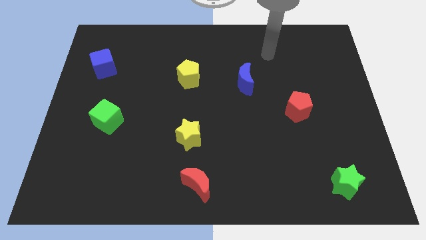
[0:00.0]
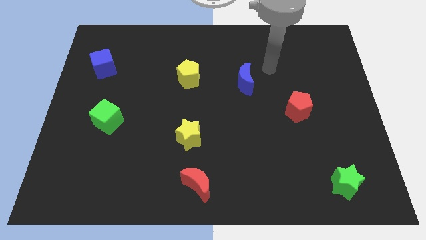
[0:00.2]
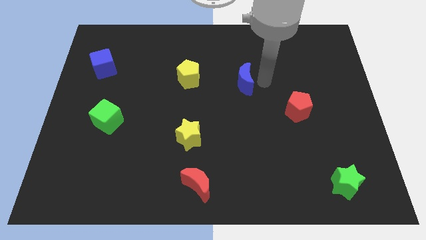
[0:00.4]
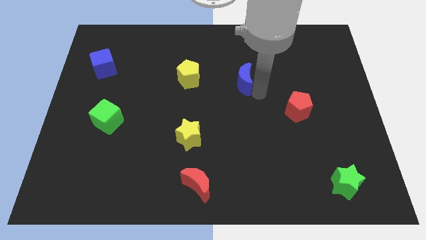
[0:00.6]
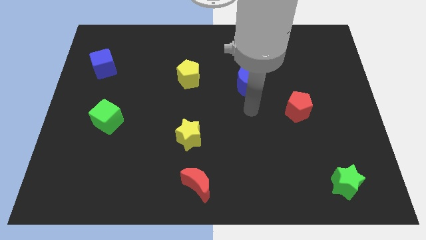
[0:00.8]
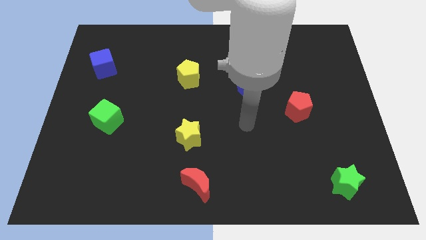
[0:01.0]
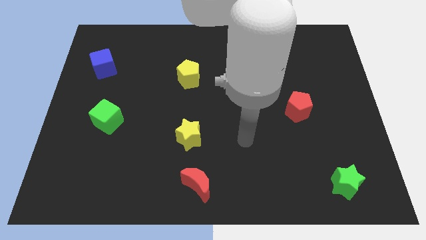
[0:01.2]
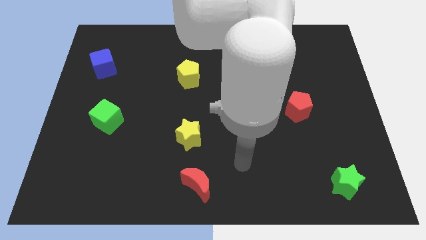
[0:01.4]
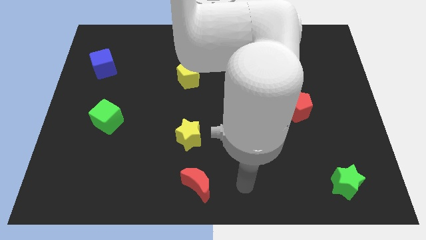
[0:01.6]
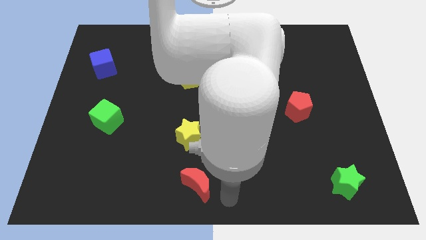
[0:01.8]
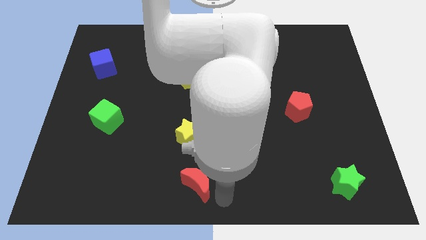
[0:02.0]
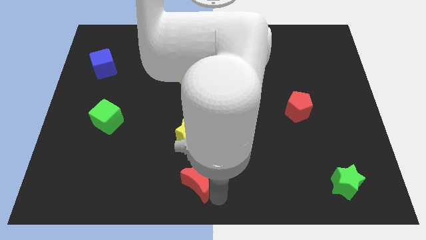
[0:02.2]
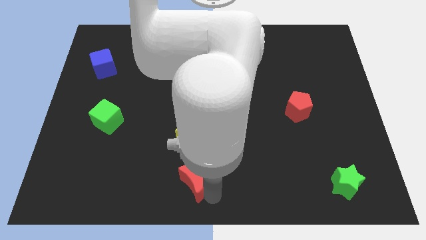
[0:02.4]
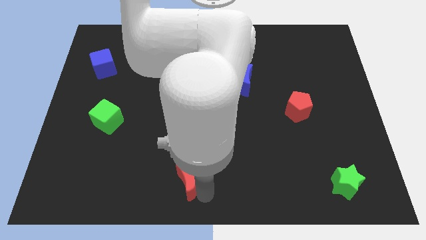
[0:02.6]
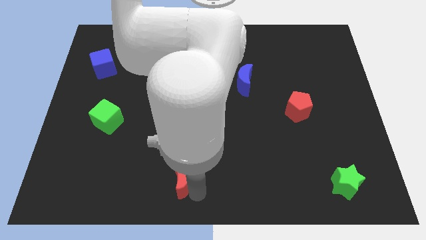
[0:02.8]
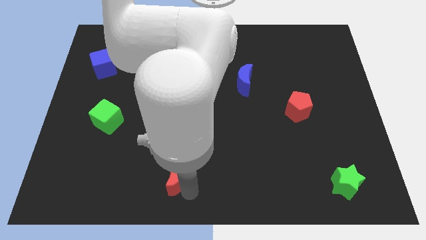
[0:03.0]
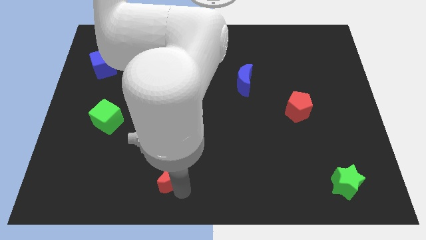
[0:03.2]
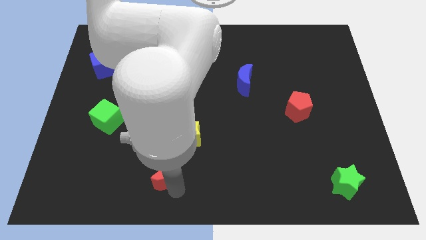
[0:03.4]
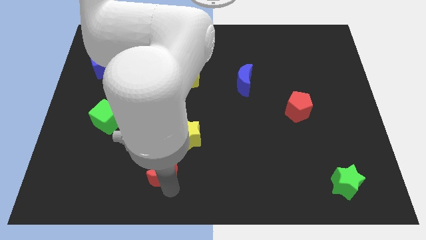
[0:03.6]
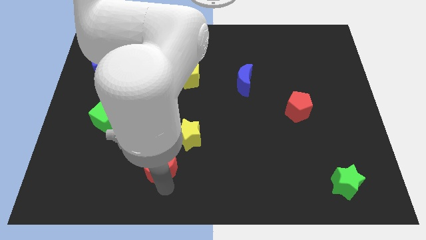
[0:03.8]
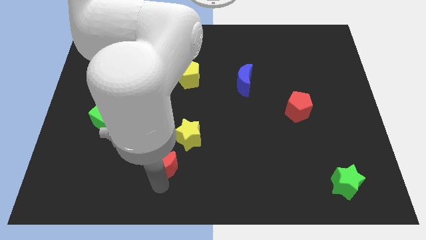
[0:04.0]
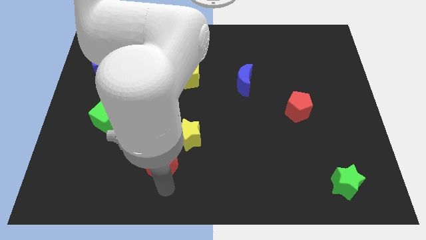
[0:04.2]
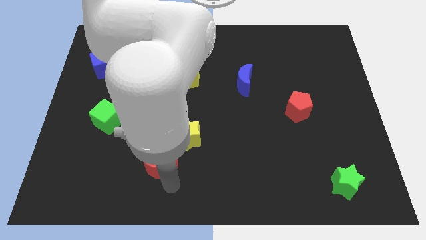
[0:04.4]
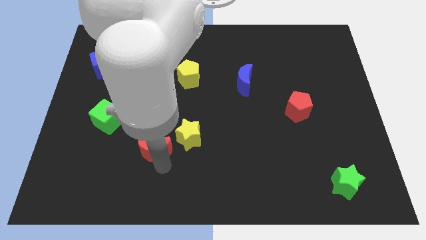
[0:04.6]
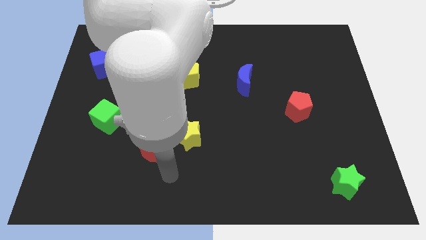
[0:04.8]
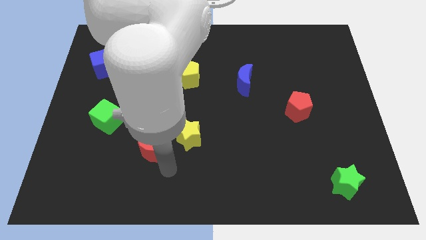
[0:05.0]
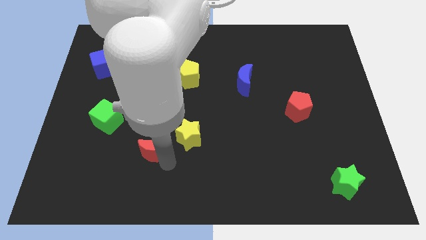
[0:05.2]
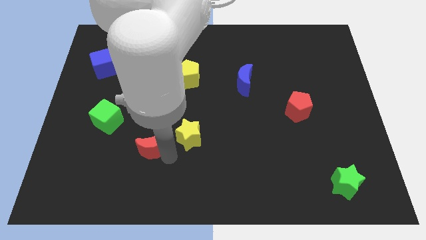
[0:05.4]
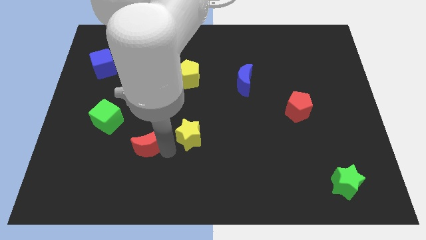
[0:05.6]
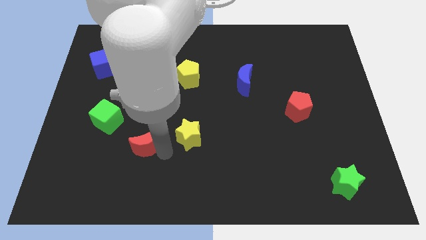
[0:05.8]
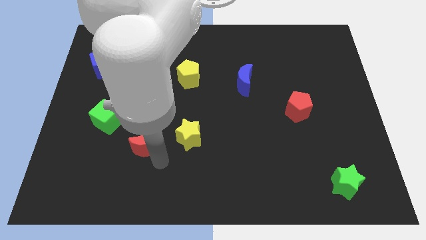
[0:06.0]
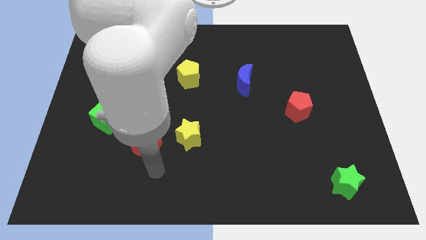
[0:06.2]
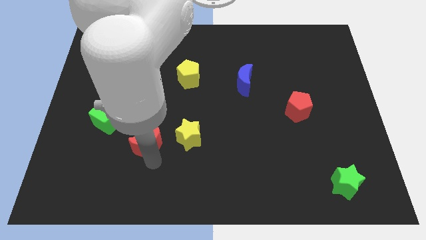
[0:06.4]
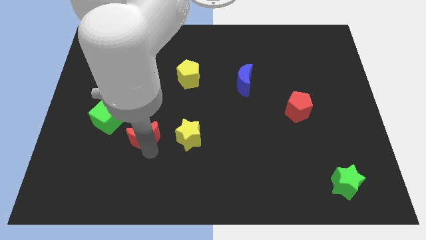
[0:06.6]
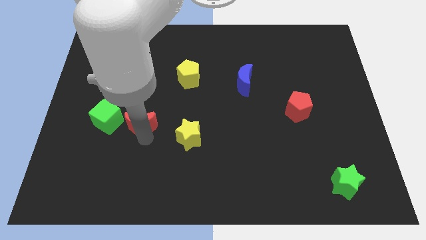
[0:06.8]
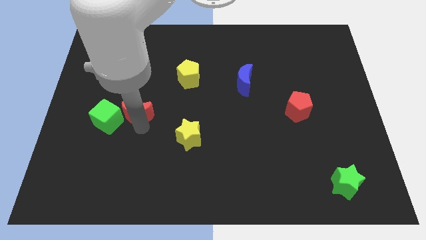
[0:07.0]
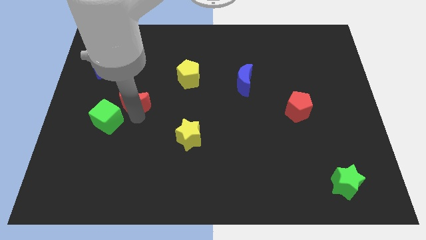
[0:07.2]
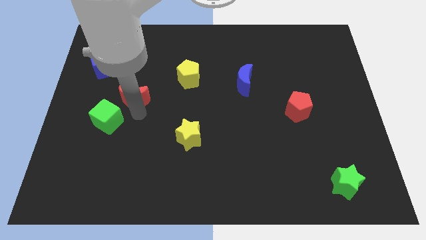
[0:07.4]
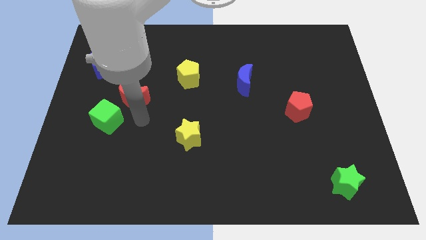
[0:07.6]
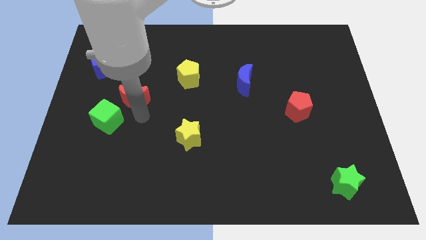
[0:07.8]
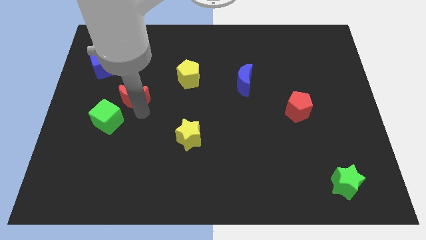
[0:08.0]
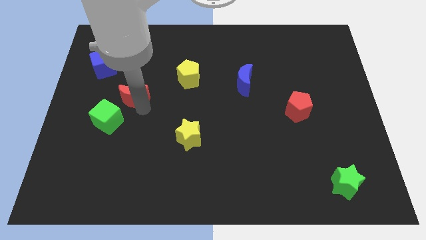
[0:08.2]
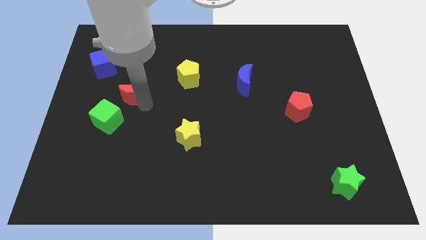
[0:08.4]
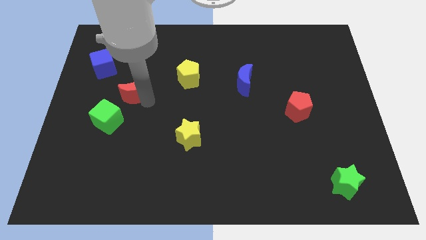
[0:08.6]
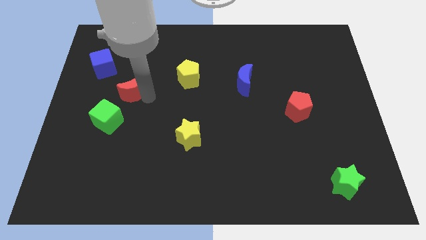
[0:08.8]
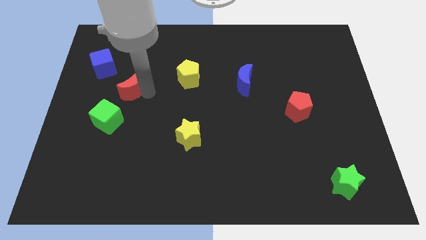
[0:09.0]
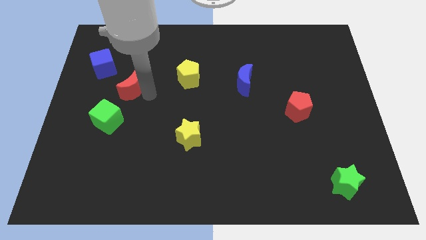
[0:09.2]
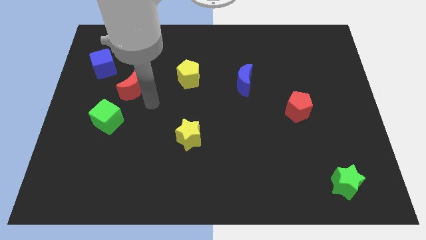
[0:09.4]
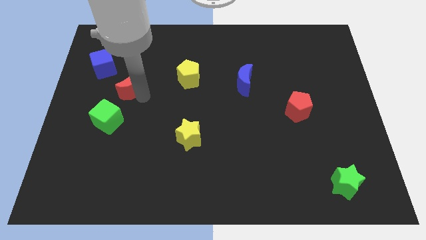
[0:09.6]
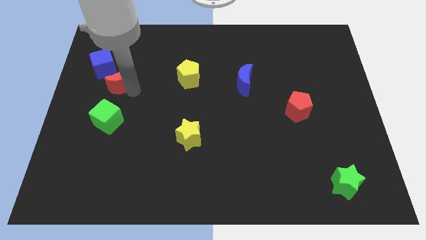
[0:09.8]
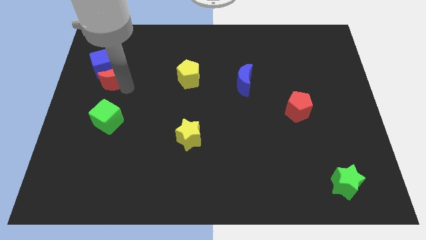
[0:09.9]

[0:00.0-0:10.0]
move the red moon next to the blue cube

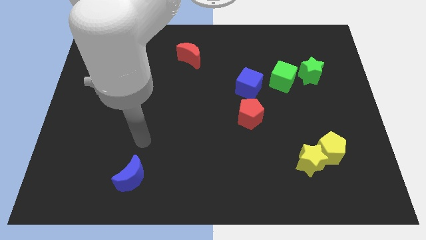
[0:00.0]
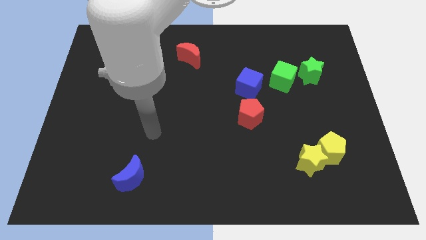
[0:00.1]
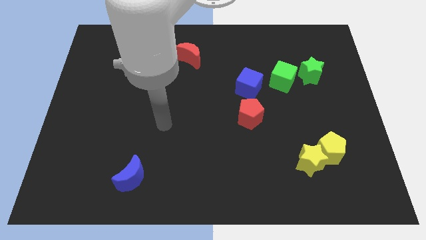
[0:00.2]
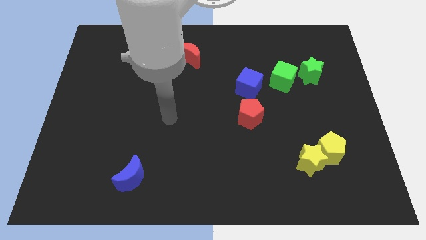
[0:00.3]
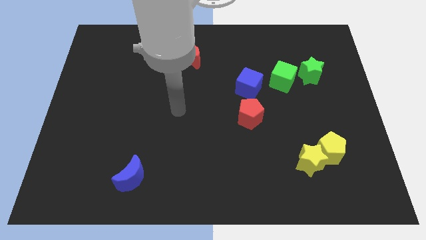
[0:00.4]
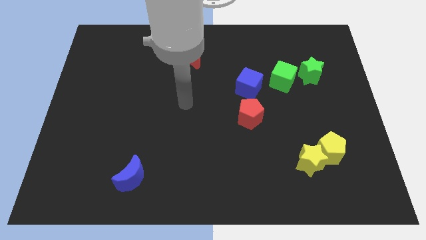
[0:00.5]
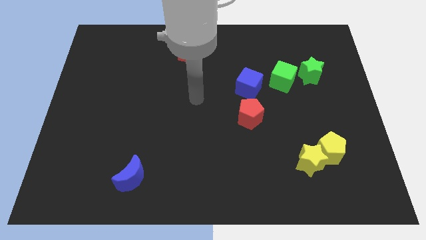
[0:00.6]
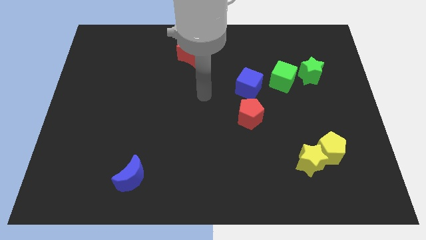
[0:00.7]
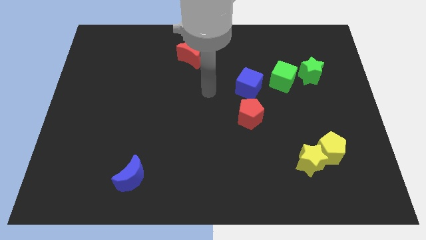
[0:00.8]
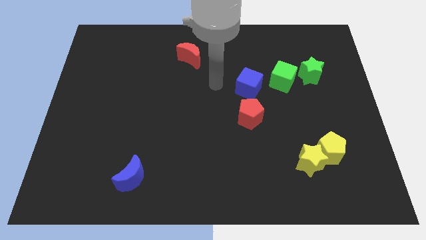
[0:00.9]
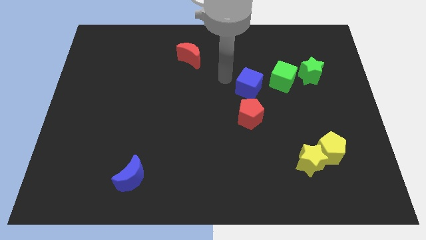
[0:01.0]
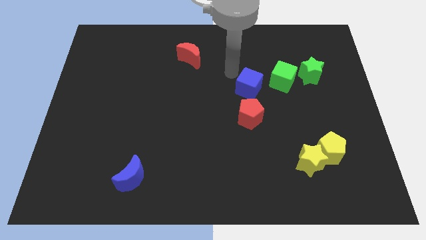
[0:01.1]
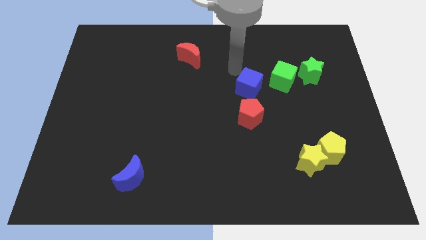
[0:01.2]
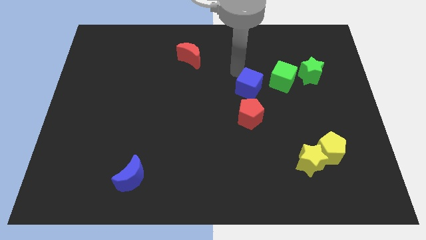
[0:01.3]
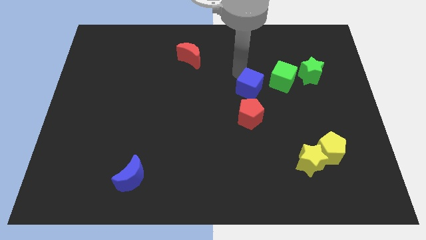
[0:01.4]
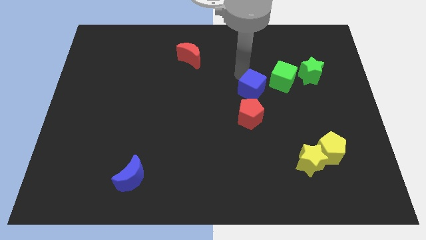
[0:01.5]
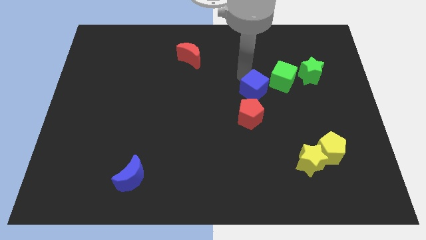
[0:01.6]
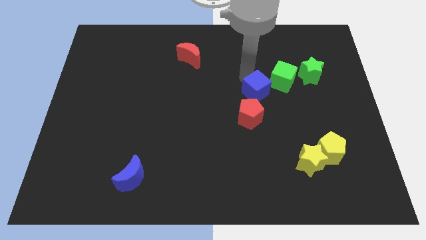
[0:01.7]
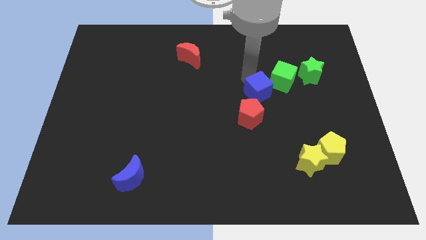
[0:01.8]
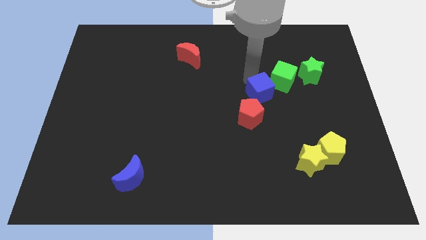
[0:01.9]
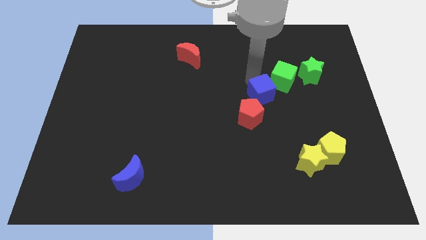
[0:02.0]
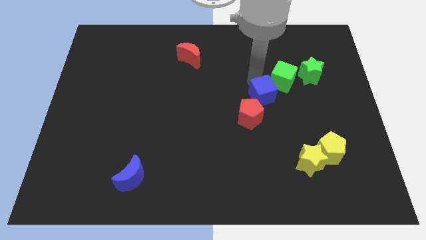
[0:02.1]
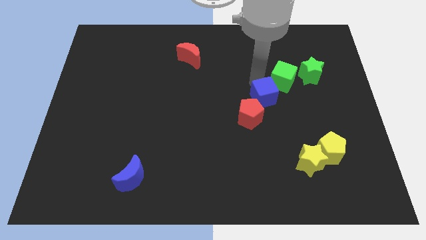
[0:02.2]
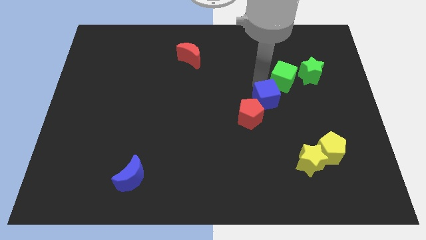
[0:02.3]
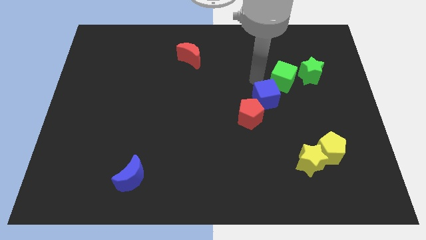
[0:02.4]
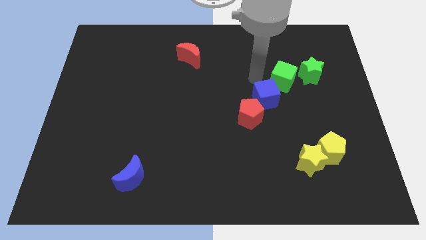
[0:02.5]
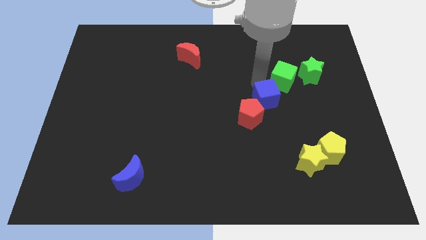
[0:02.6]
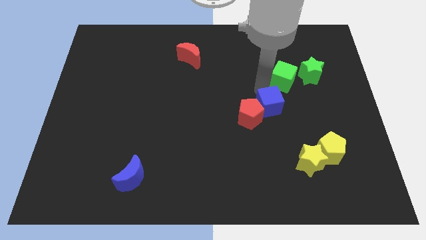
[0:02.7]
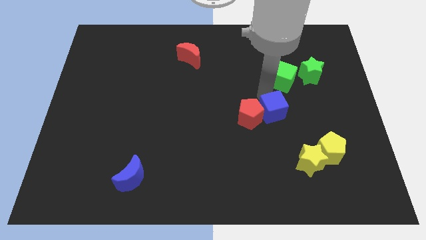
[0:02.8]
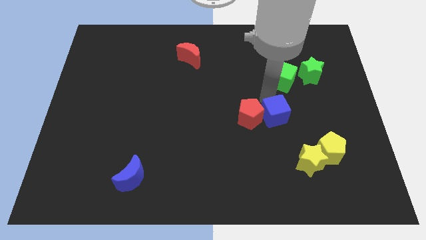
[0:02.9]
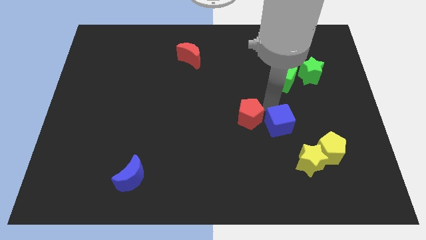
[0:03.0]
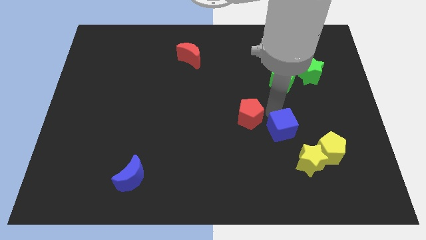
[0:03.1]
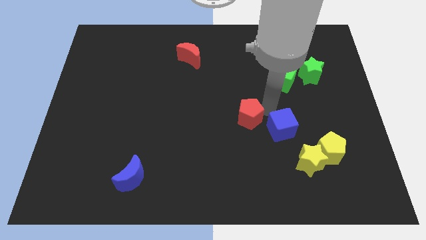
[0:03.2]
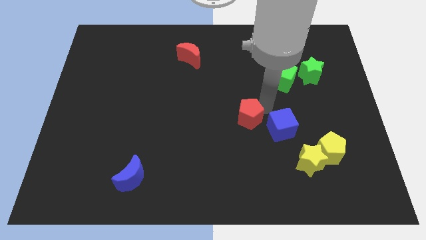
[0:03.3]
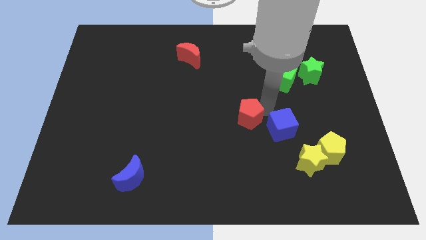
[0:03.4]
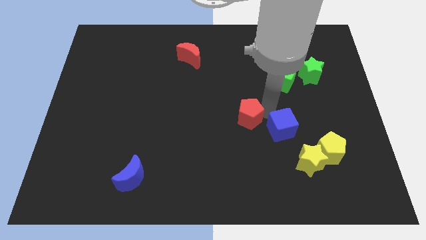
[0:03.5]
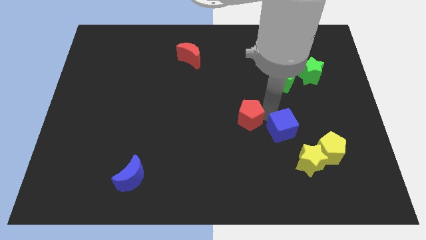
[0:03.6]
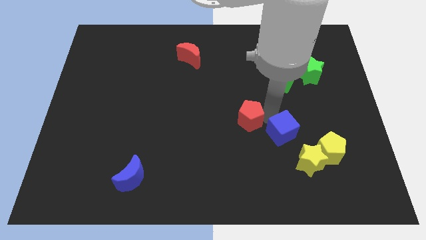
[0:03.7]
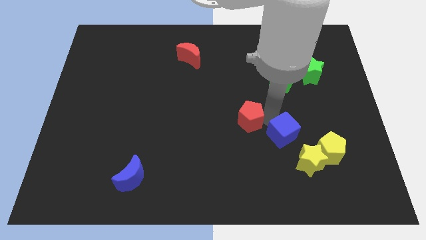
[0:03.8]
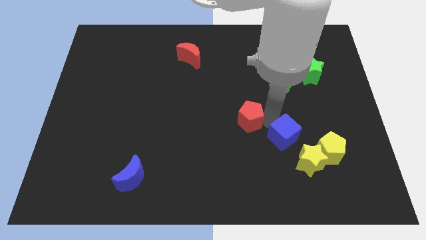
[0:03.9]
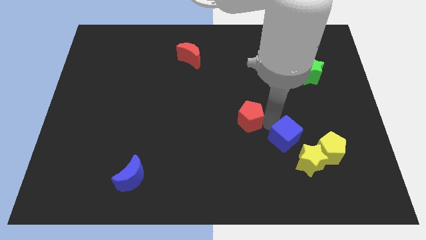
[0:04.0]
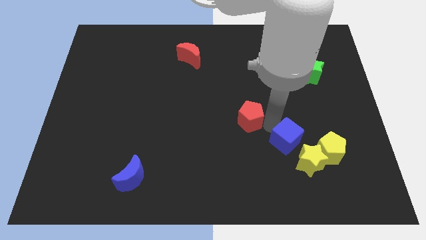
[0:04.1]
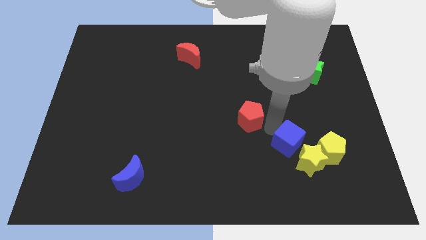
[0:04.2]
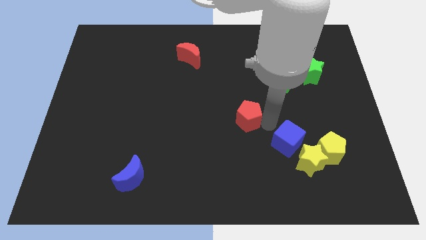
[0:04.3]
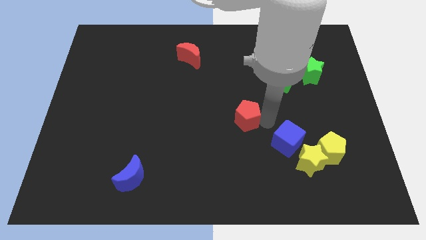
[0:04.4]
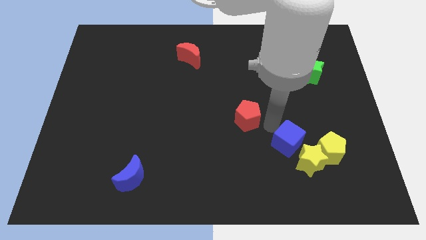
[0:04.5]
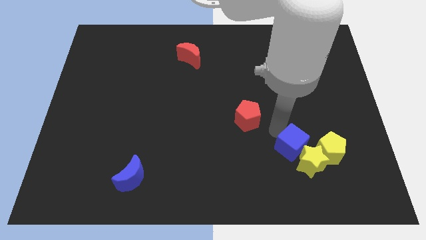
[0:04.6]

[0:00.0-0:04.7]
push the blue cube to the yellow star
